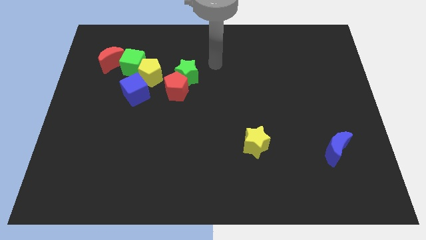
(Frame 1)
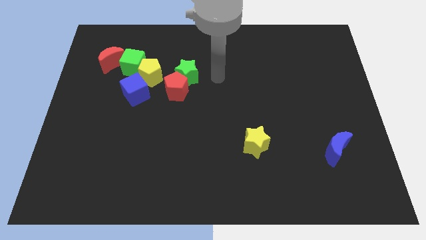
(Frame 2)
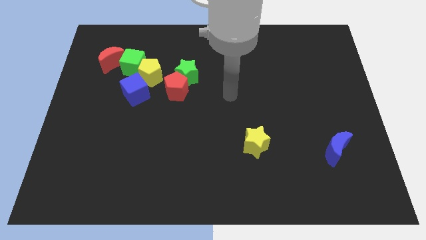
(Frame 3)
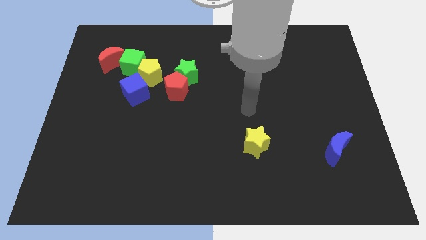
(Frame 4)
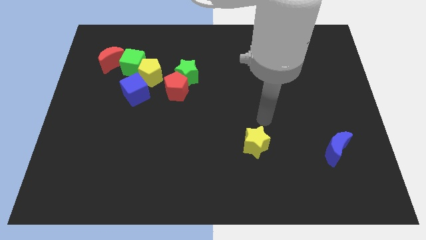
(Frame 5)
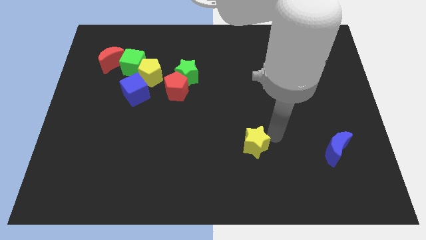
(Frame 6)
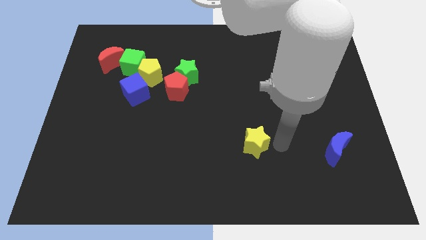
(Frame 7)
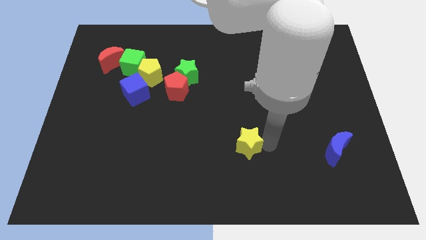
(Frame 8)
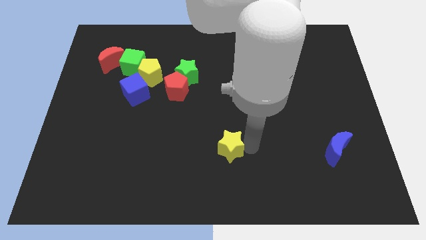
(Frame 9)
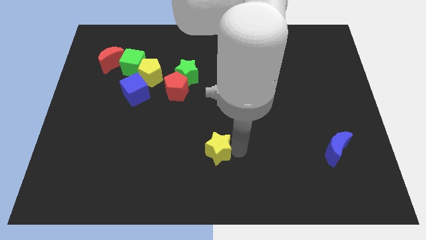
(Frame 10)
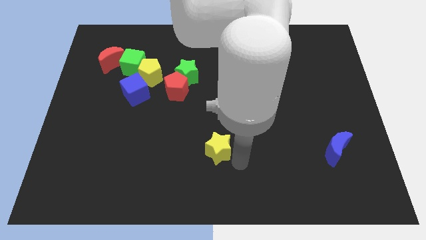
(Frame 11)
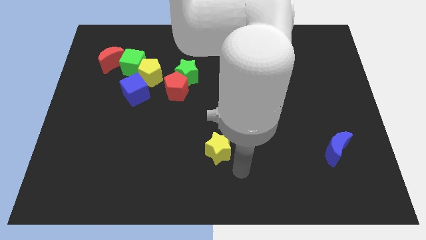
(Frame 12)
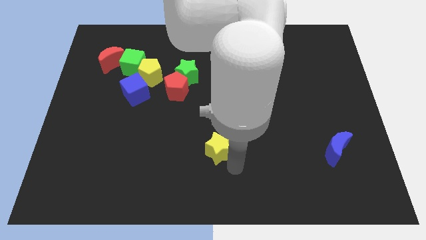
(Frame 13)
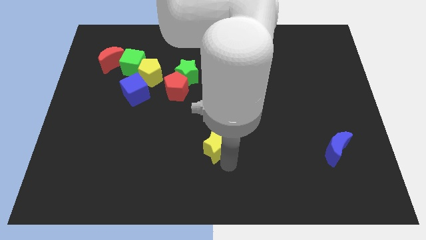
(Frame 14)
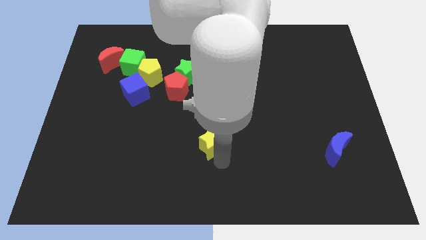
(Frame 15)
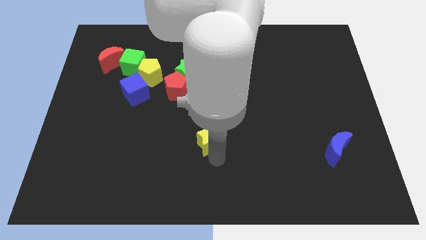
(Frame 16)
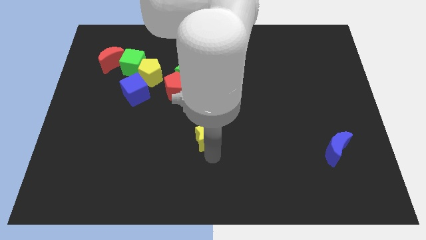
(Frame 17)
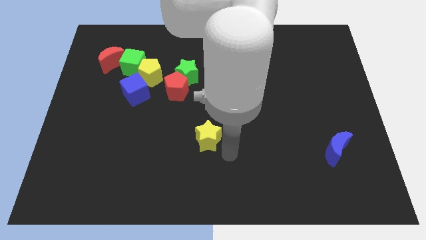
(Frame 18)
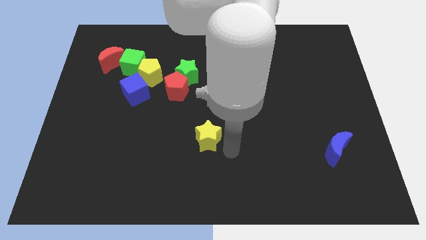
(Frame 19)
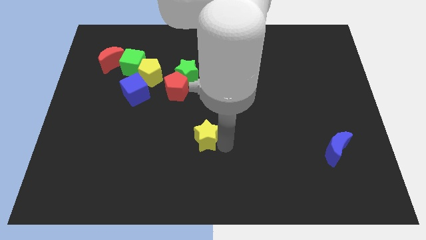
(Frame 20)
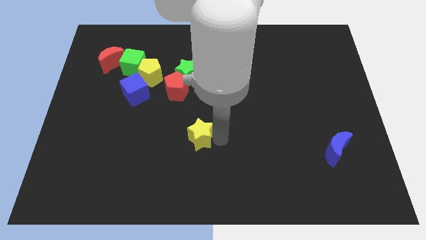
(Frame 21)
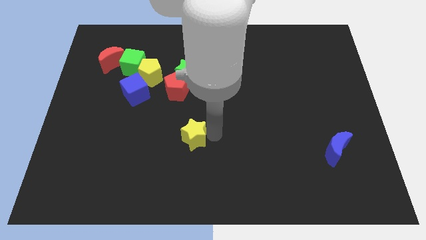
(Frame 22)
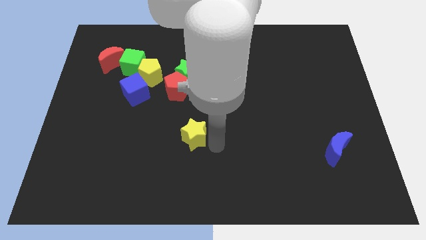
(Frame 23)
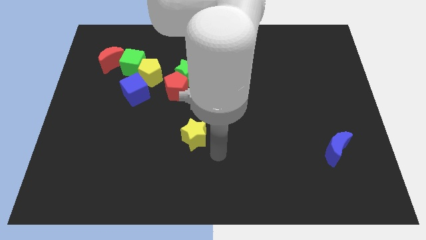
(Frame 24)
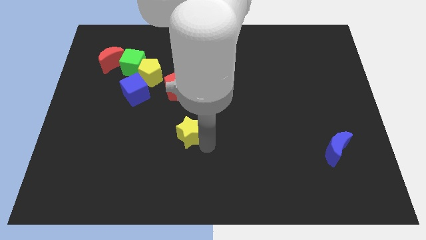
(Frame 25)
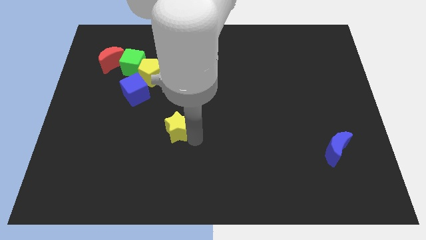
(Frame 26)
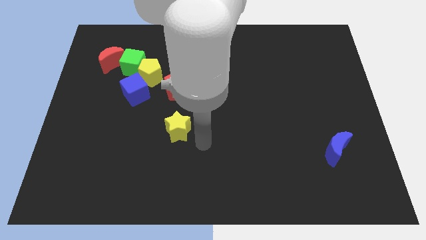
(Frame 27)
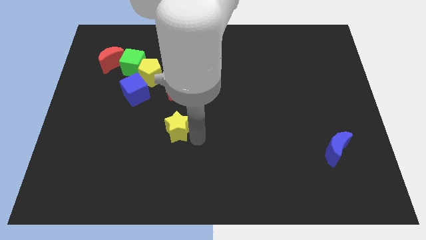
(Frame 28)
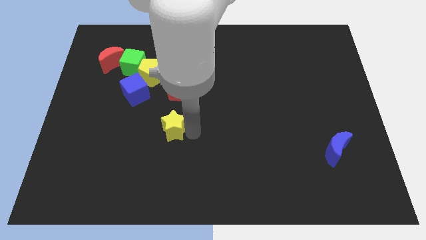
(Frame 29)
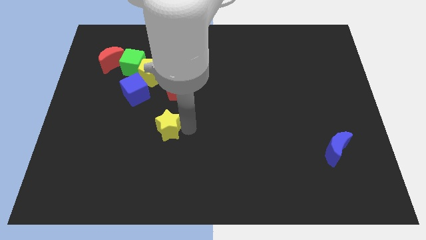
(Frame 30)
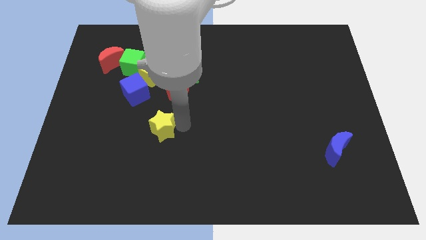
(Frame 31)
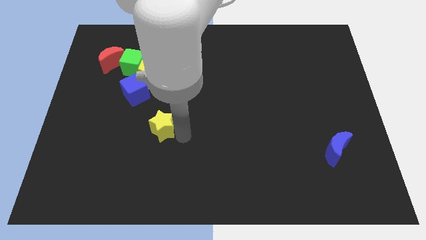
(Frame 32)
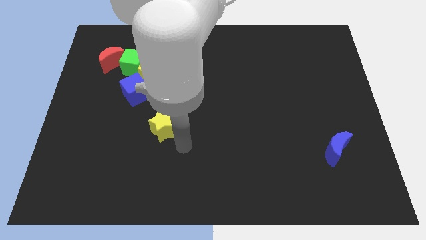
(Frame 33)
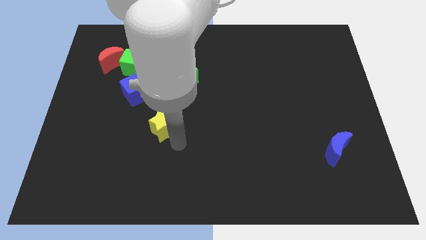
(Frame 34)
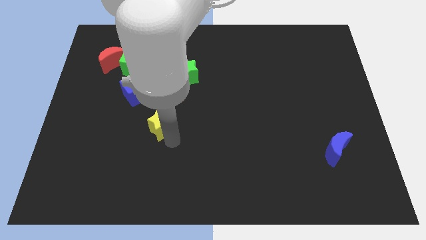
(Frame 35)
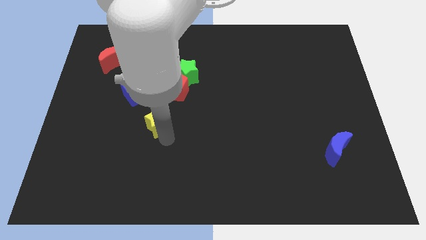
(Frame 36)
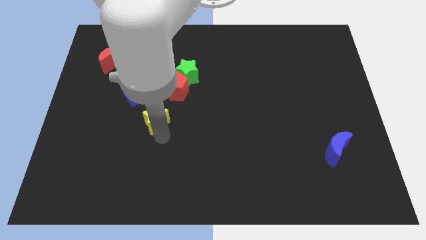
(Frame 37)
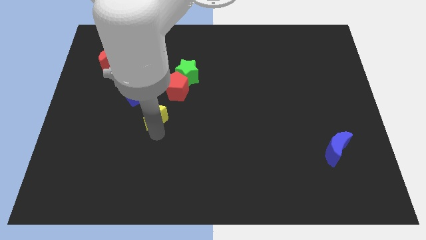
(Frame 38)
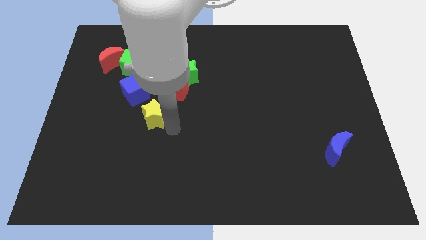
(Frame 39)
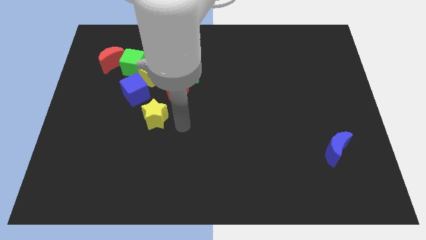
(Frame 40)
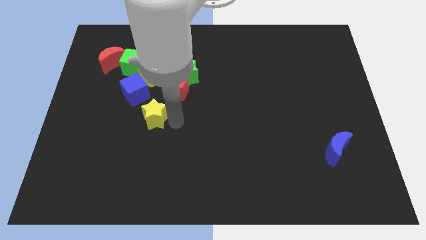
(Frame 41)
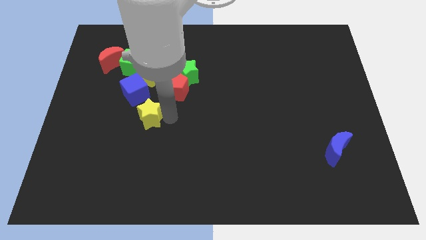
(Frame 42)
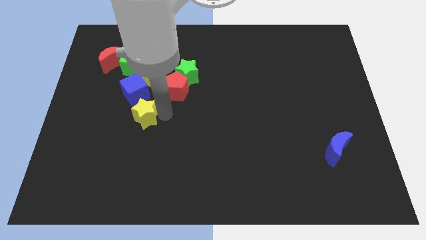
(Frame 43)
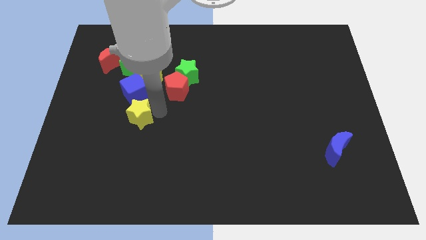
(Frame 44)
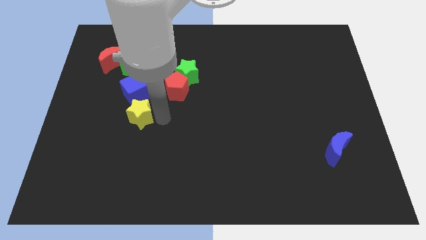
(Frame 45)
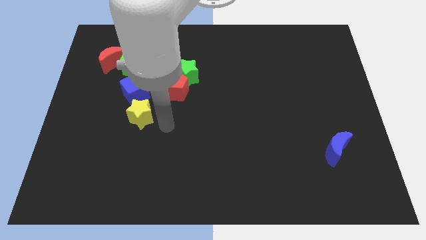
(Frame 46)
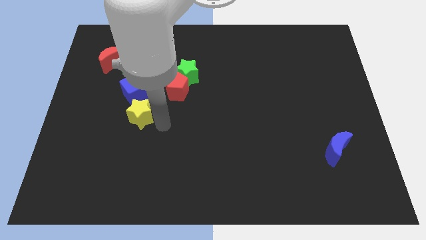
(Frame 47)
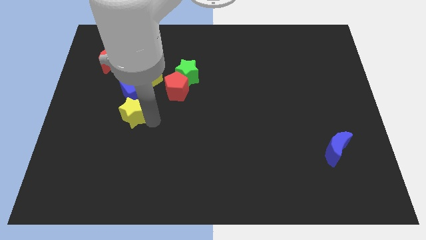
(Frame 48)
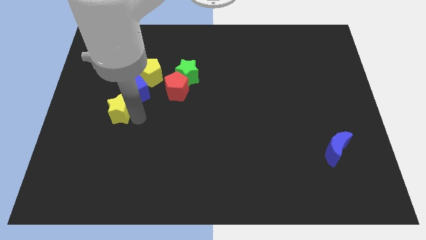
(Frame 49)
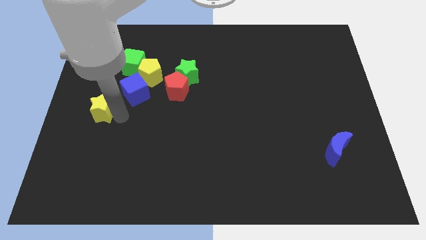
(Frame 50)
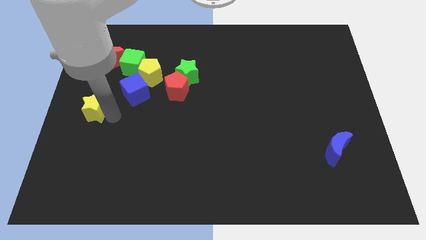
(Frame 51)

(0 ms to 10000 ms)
move the yellow star to the bottom of the red moon

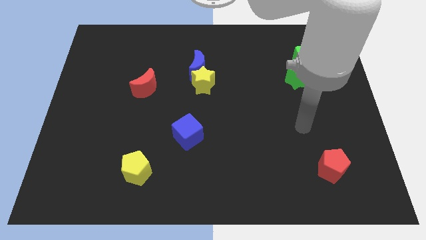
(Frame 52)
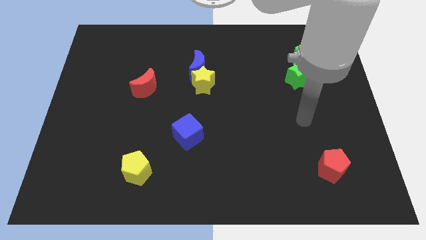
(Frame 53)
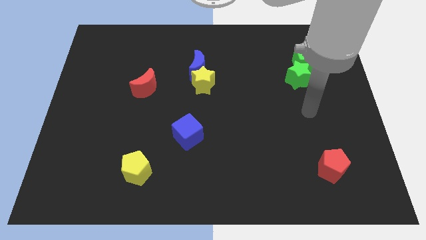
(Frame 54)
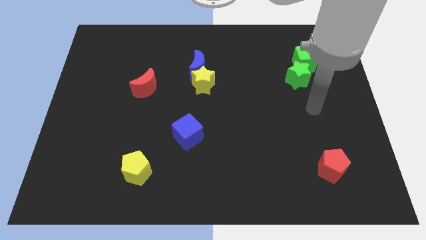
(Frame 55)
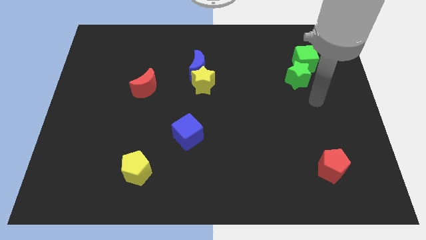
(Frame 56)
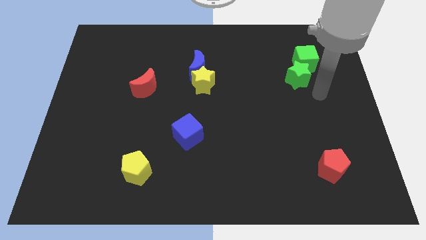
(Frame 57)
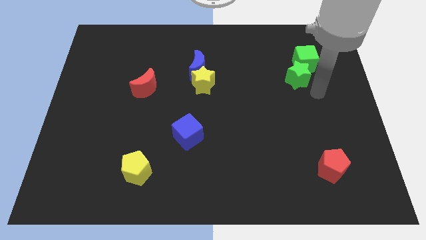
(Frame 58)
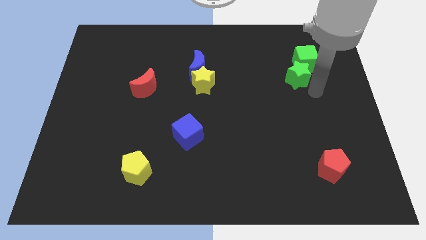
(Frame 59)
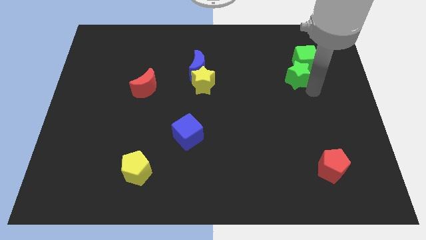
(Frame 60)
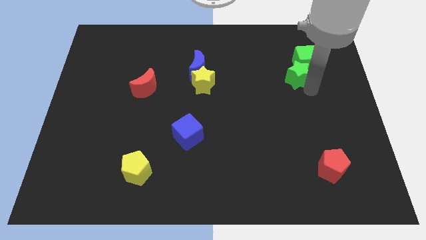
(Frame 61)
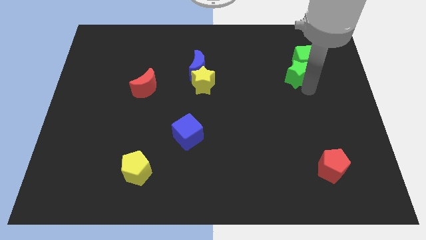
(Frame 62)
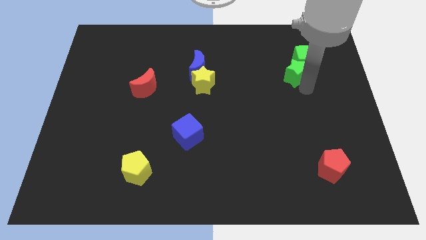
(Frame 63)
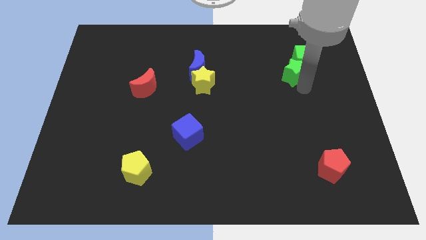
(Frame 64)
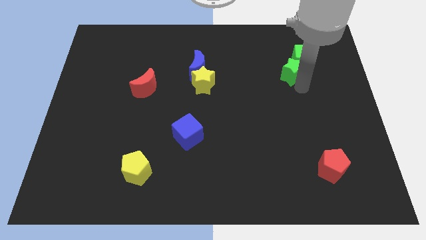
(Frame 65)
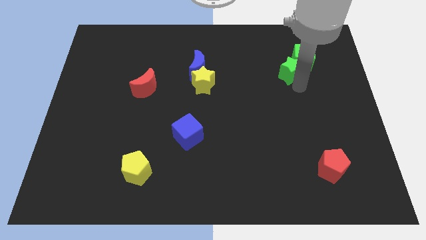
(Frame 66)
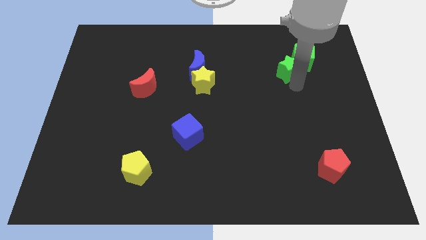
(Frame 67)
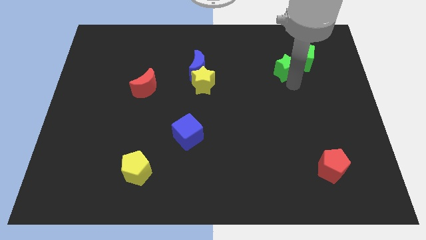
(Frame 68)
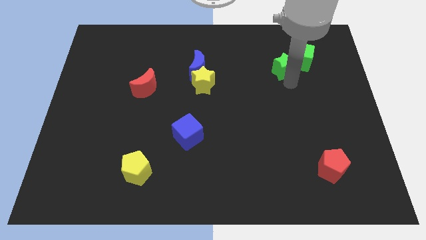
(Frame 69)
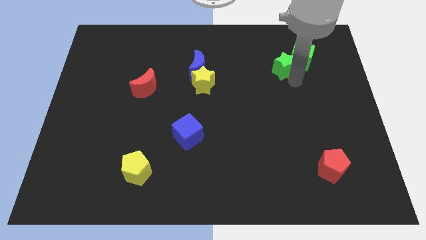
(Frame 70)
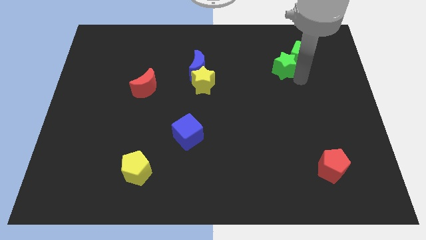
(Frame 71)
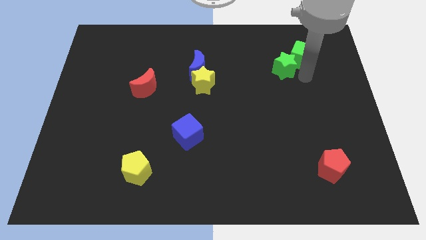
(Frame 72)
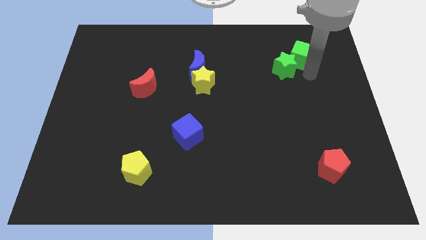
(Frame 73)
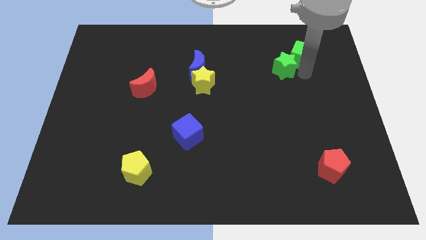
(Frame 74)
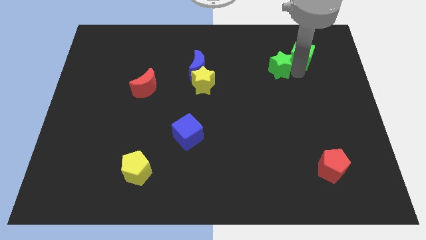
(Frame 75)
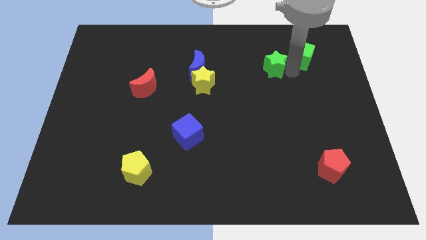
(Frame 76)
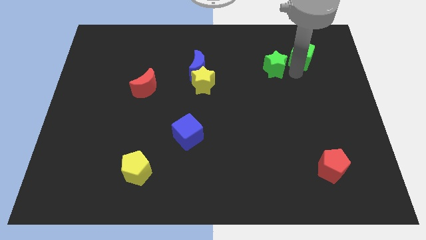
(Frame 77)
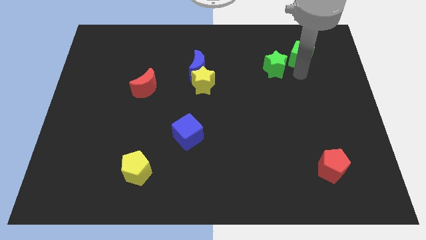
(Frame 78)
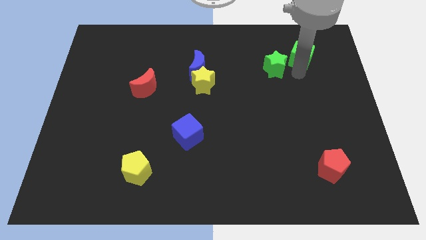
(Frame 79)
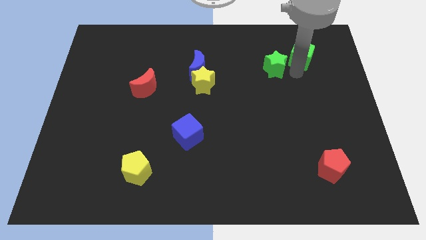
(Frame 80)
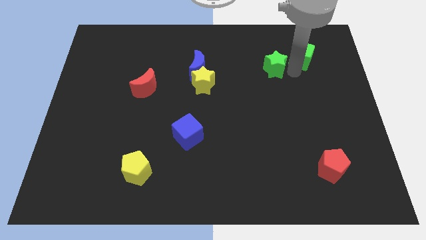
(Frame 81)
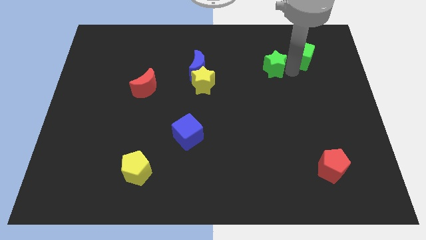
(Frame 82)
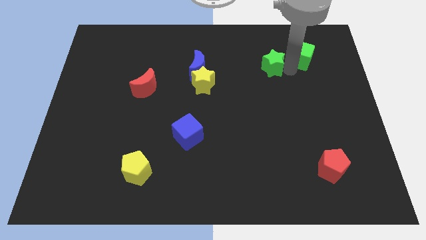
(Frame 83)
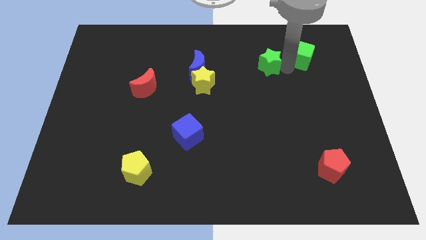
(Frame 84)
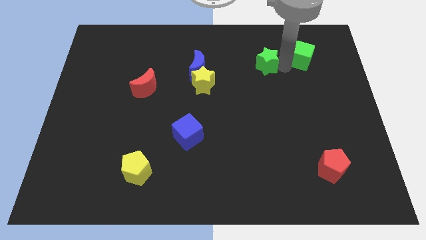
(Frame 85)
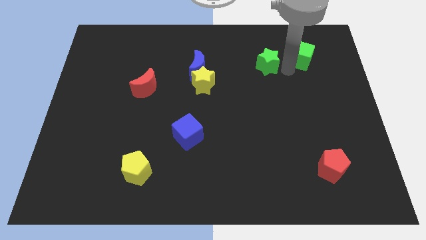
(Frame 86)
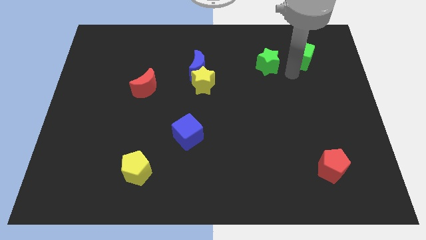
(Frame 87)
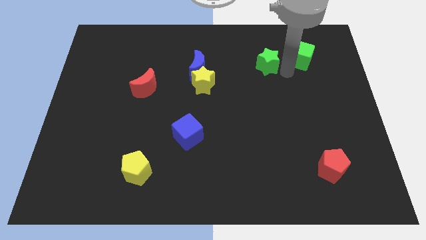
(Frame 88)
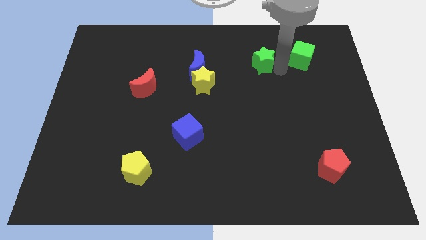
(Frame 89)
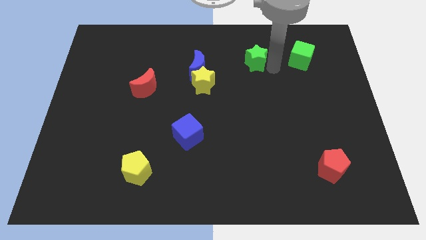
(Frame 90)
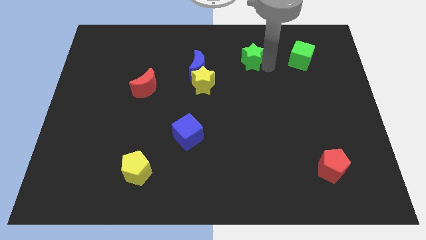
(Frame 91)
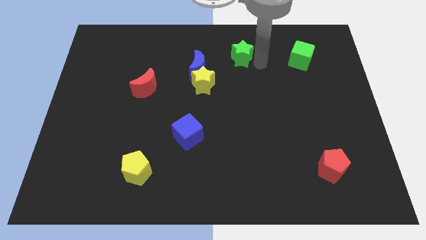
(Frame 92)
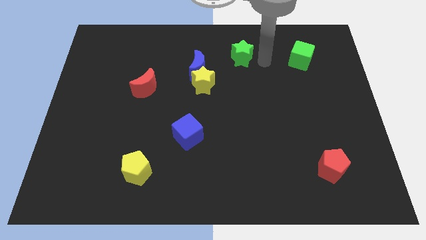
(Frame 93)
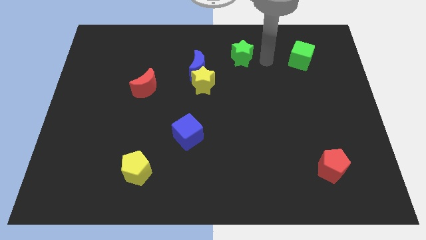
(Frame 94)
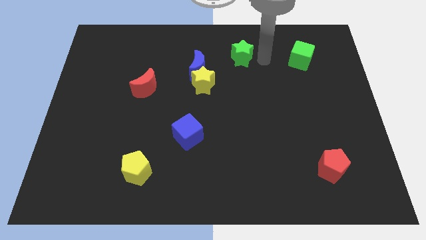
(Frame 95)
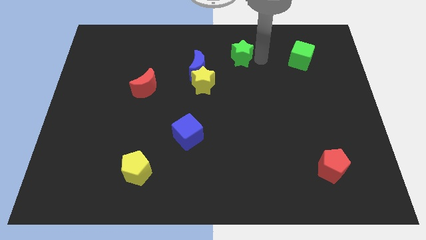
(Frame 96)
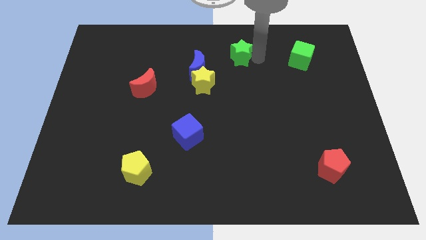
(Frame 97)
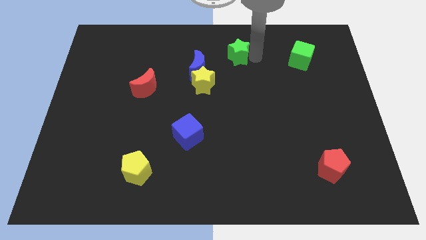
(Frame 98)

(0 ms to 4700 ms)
put the green star to the top right of the blue moon
